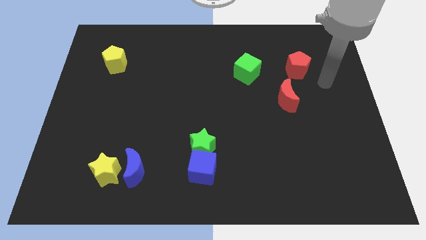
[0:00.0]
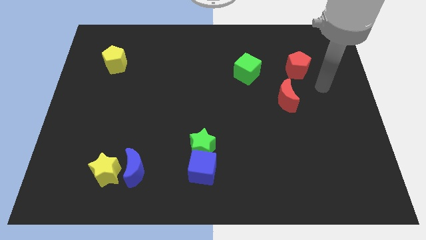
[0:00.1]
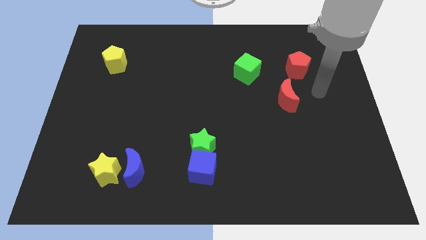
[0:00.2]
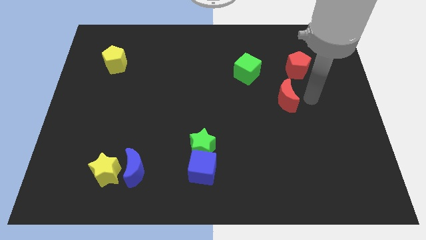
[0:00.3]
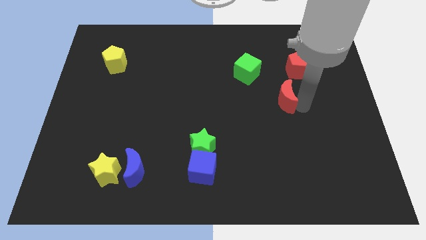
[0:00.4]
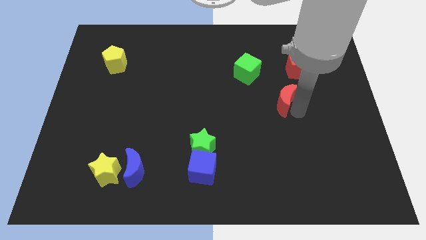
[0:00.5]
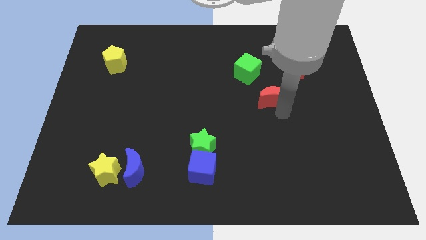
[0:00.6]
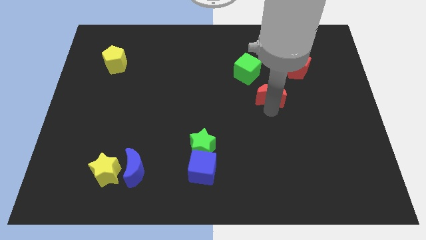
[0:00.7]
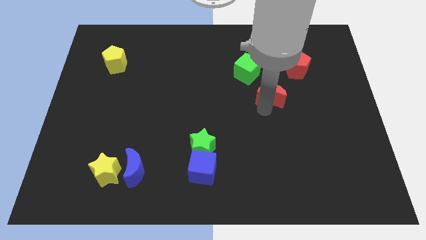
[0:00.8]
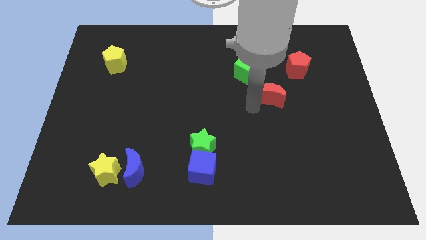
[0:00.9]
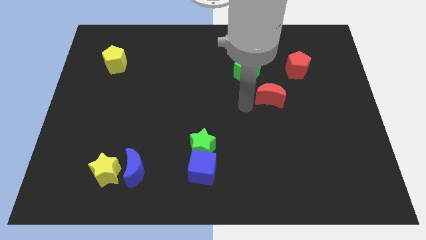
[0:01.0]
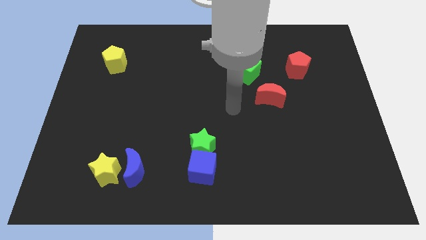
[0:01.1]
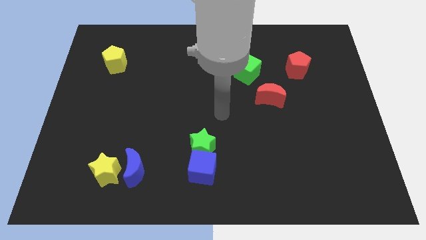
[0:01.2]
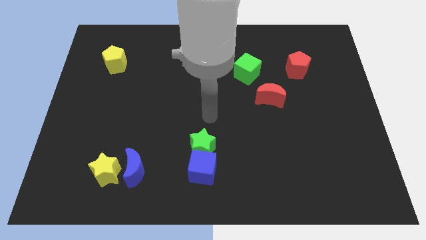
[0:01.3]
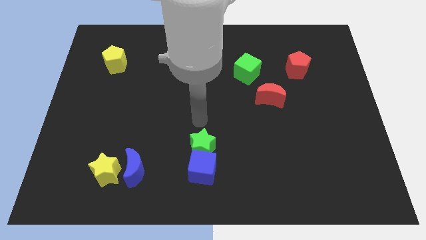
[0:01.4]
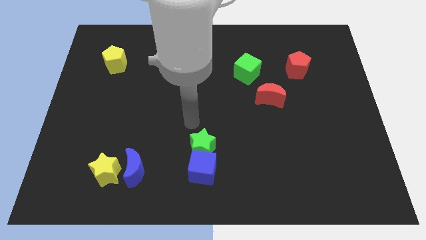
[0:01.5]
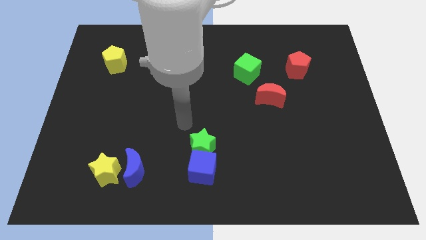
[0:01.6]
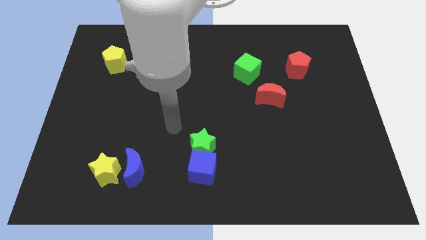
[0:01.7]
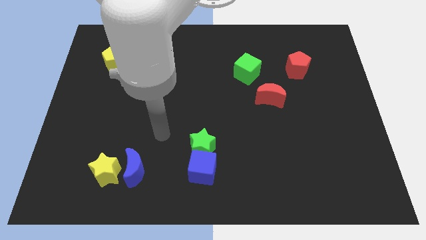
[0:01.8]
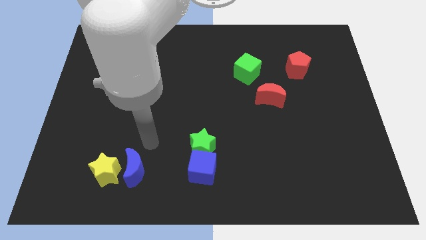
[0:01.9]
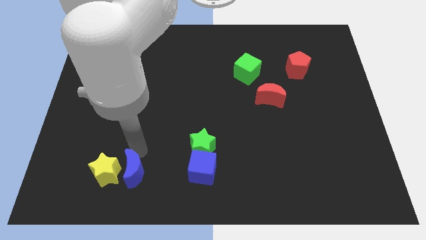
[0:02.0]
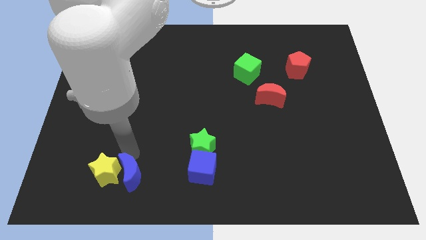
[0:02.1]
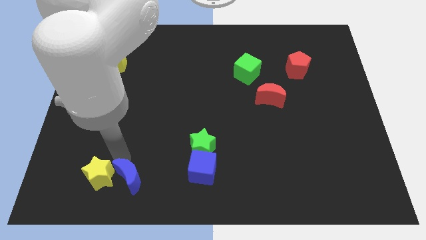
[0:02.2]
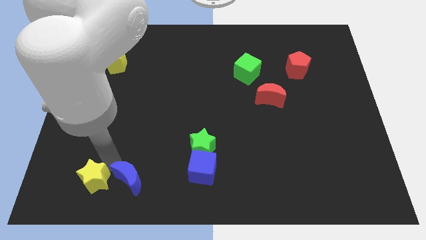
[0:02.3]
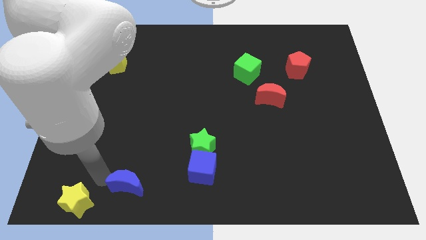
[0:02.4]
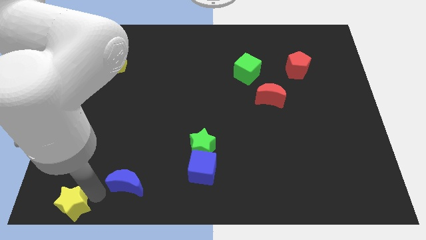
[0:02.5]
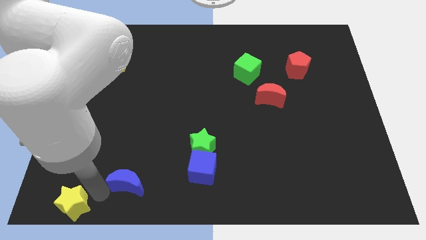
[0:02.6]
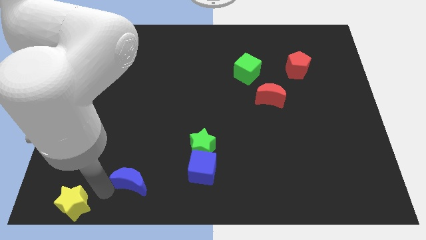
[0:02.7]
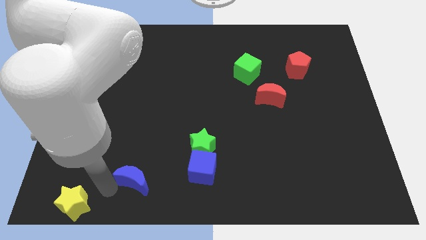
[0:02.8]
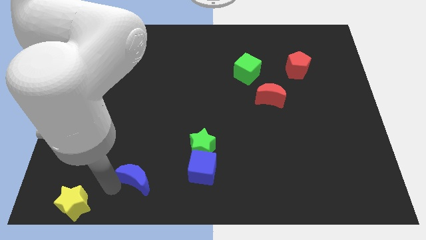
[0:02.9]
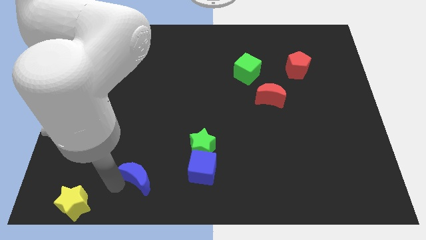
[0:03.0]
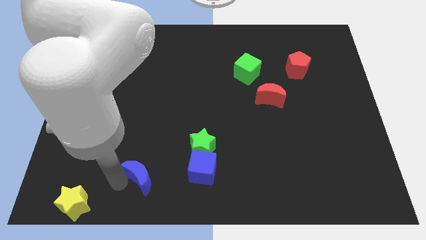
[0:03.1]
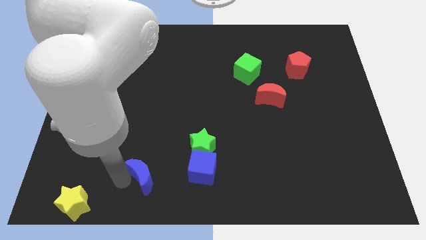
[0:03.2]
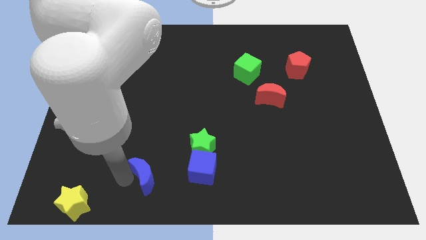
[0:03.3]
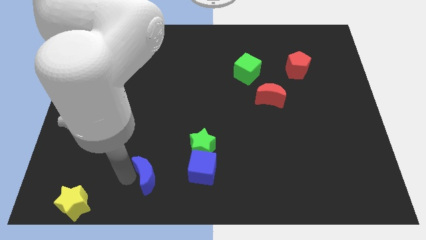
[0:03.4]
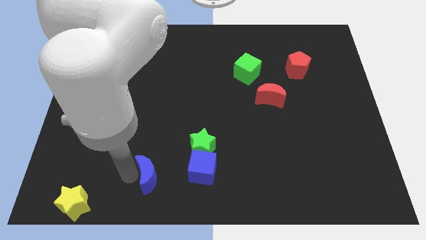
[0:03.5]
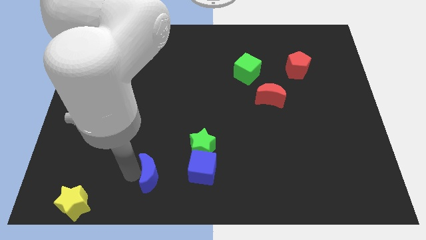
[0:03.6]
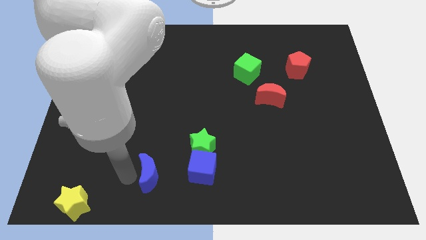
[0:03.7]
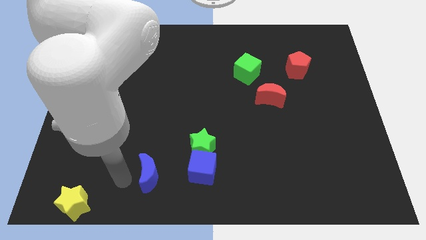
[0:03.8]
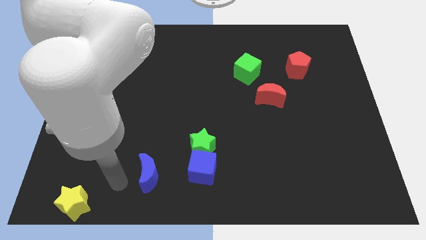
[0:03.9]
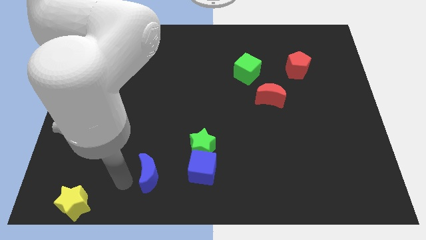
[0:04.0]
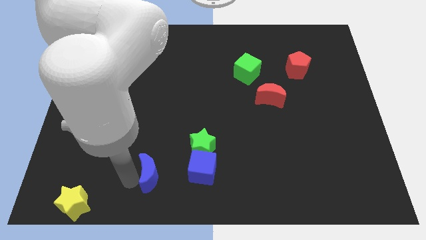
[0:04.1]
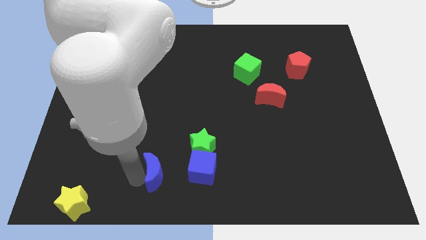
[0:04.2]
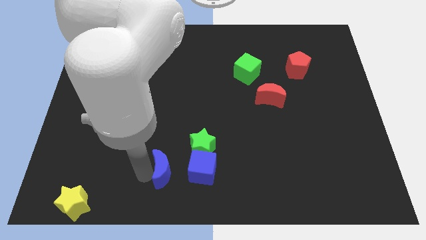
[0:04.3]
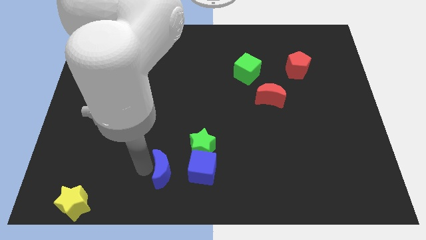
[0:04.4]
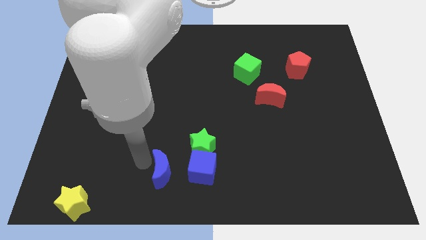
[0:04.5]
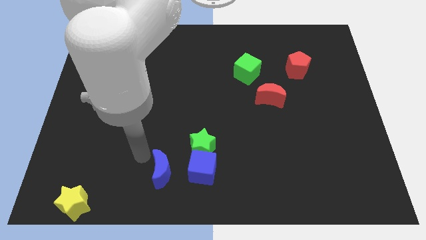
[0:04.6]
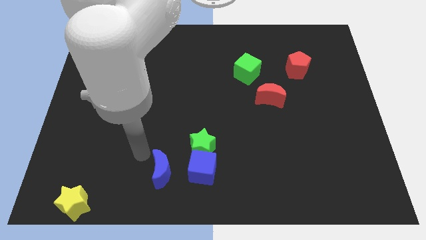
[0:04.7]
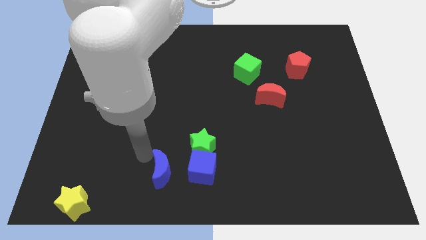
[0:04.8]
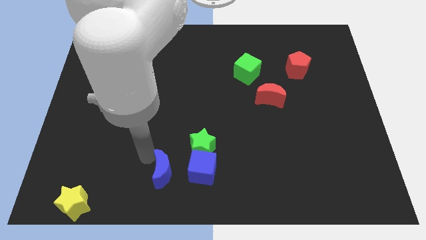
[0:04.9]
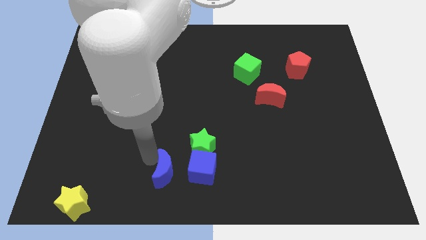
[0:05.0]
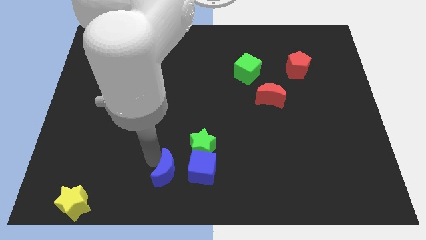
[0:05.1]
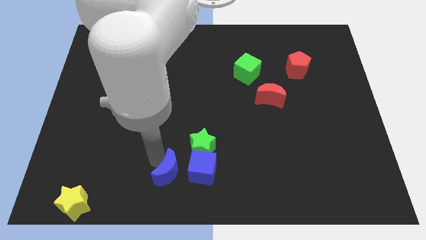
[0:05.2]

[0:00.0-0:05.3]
push the blue moon a little right

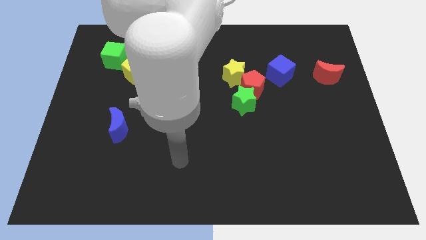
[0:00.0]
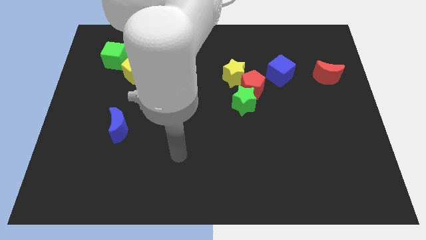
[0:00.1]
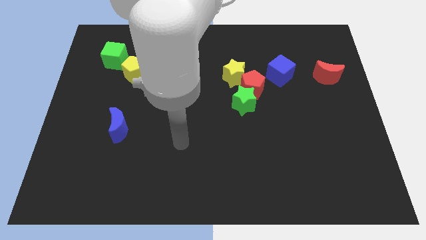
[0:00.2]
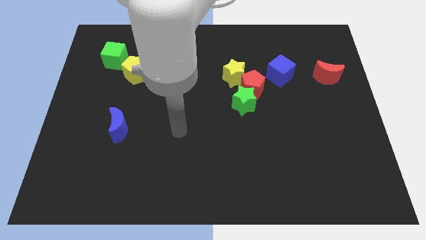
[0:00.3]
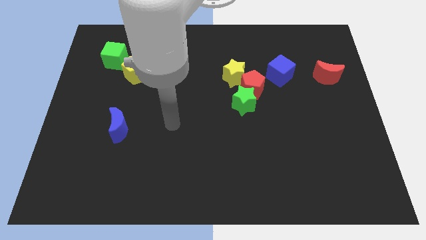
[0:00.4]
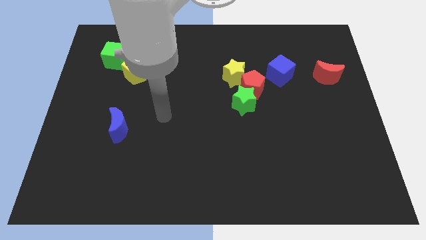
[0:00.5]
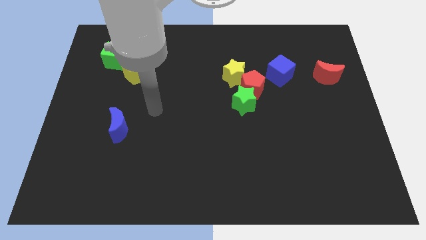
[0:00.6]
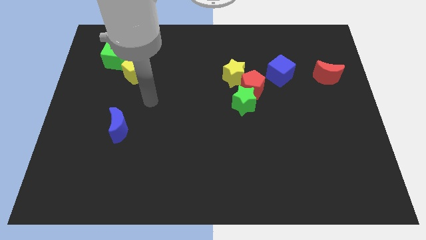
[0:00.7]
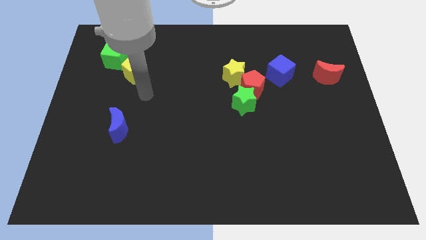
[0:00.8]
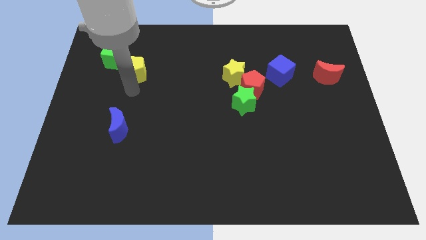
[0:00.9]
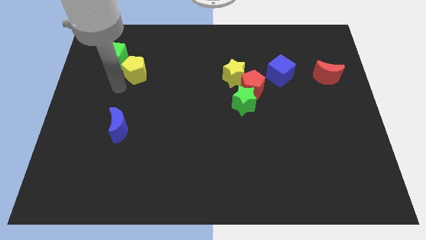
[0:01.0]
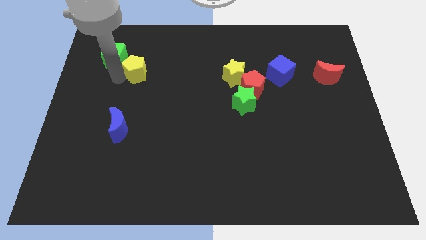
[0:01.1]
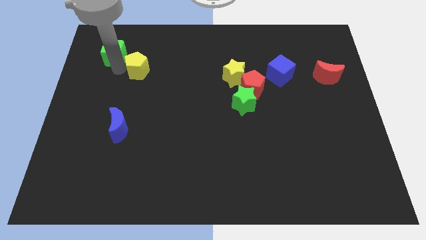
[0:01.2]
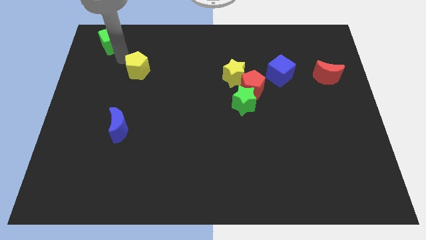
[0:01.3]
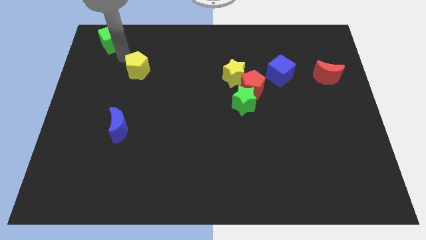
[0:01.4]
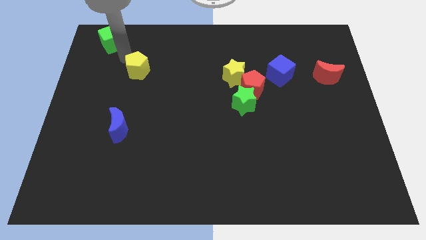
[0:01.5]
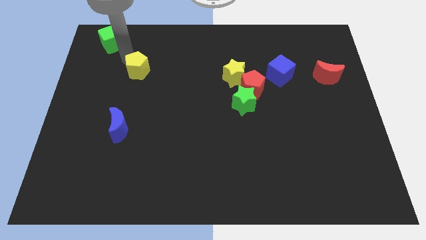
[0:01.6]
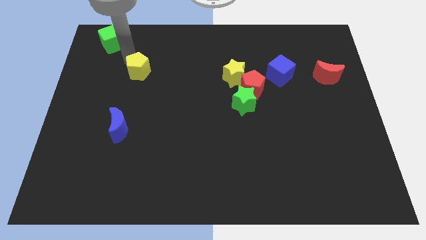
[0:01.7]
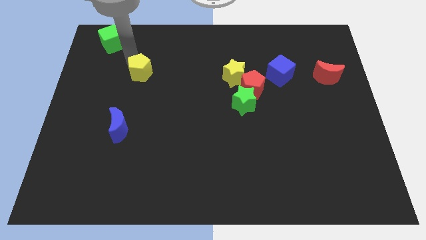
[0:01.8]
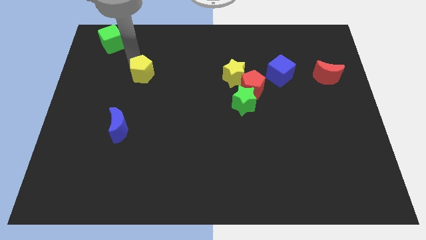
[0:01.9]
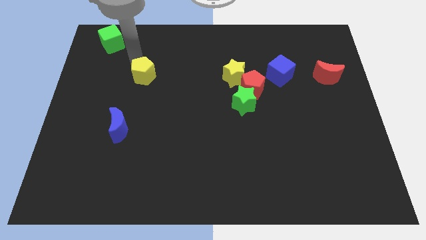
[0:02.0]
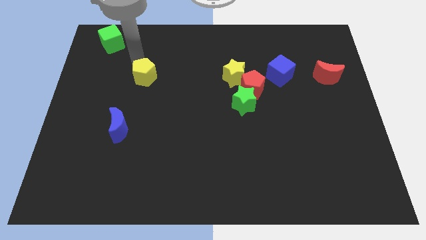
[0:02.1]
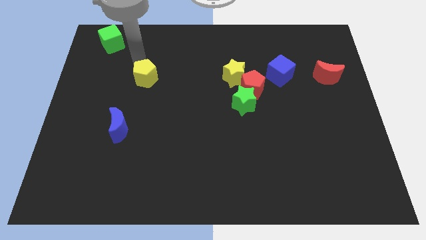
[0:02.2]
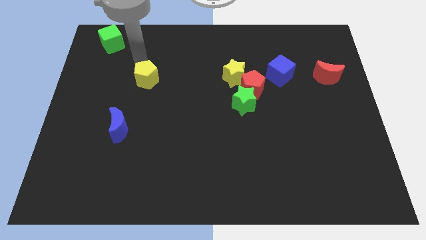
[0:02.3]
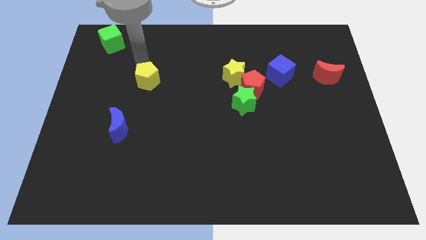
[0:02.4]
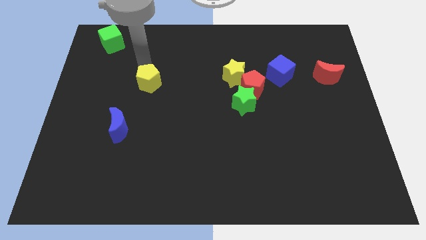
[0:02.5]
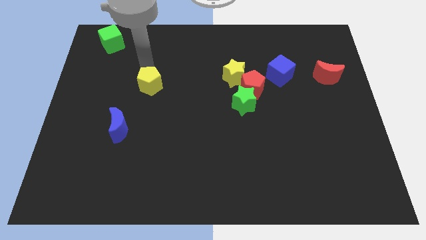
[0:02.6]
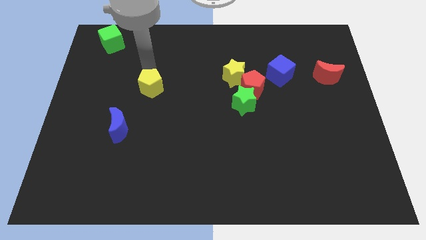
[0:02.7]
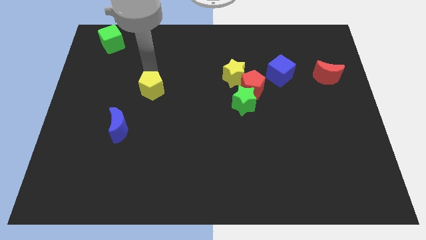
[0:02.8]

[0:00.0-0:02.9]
slide the yellow pentagon diagonally down and to the right somewhat
